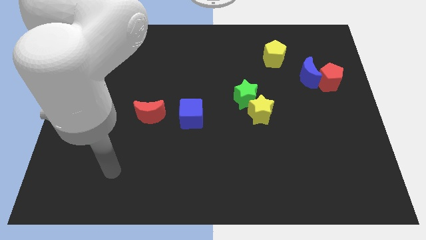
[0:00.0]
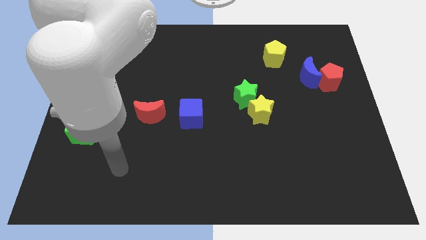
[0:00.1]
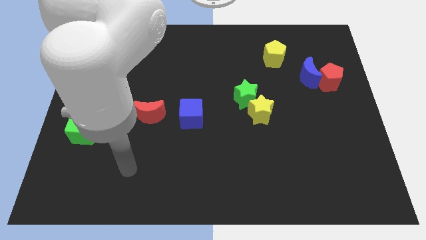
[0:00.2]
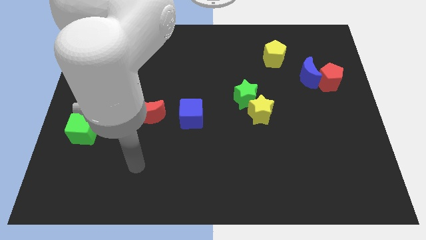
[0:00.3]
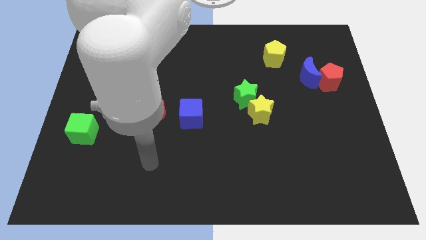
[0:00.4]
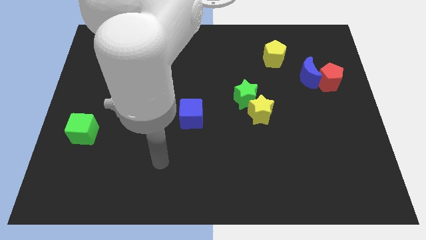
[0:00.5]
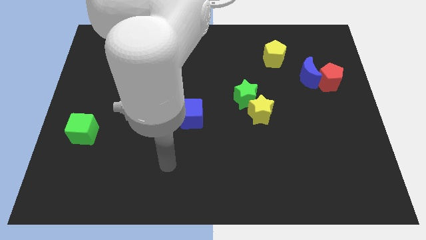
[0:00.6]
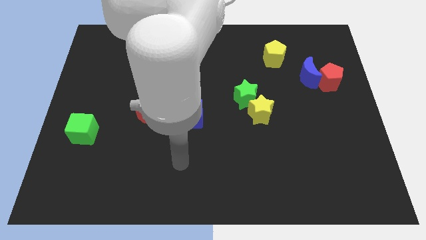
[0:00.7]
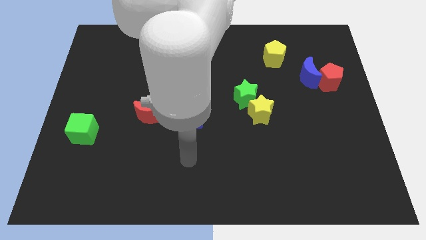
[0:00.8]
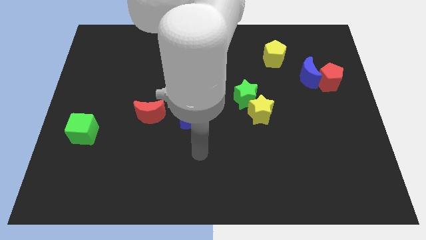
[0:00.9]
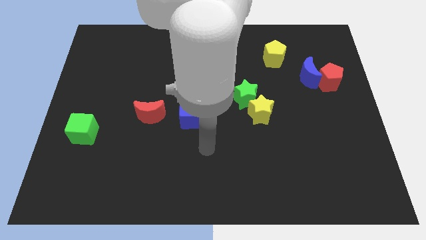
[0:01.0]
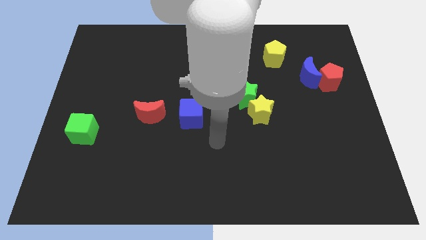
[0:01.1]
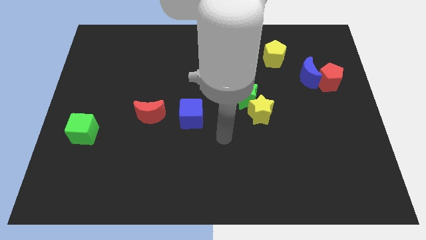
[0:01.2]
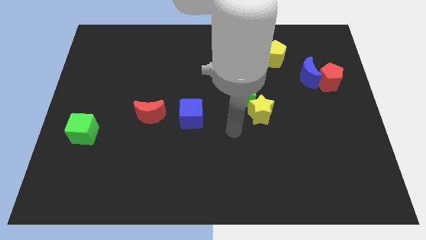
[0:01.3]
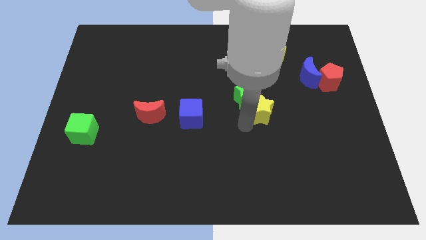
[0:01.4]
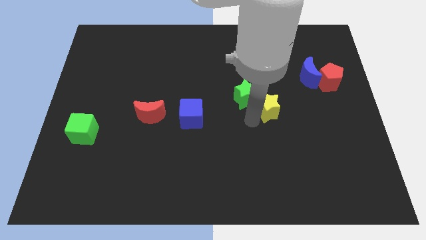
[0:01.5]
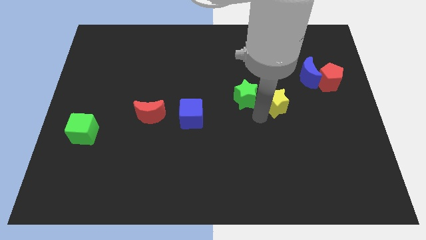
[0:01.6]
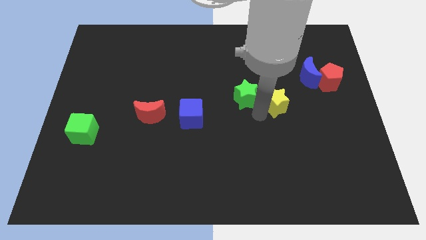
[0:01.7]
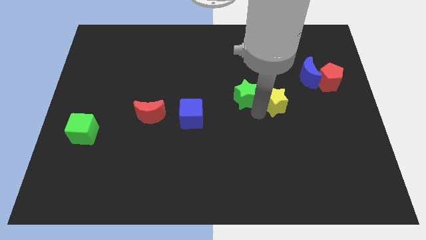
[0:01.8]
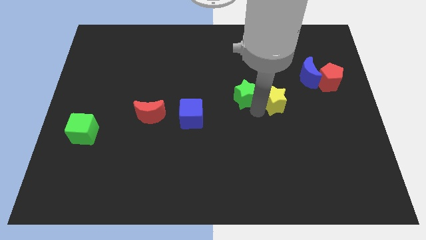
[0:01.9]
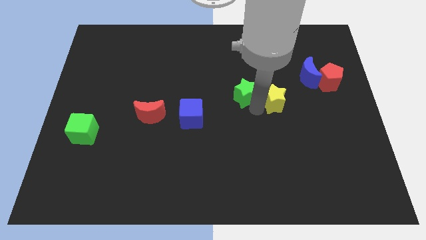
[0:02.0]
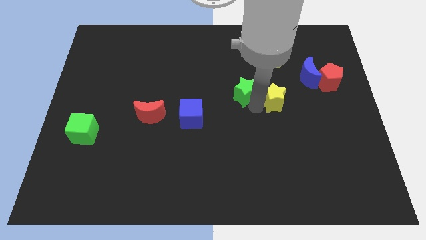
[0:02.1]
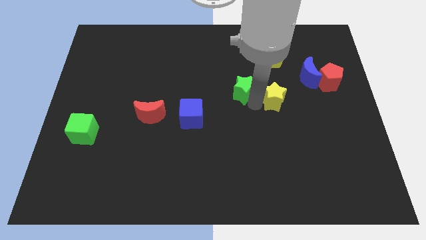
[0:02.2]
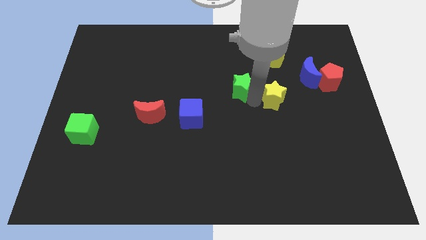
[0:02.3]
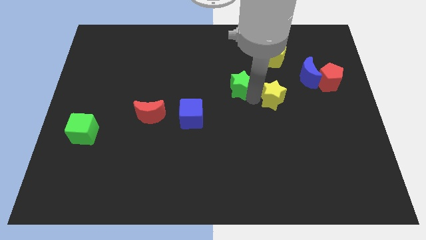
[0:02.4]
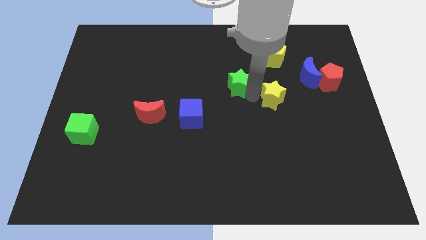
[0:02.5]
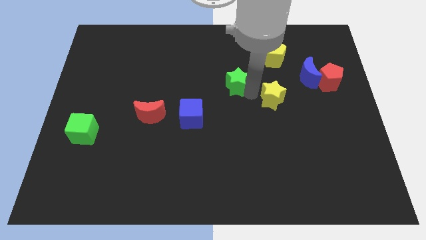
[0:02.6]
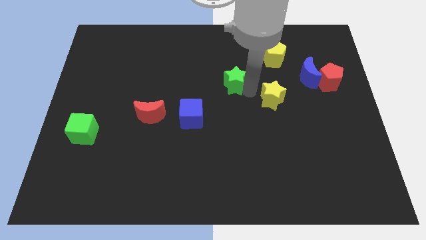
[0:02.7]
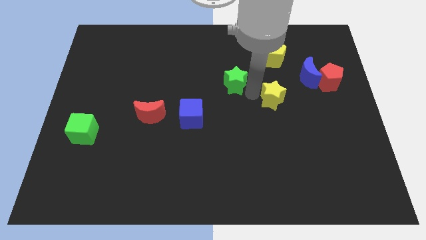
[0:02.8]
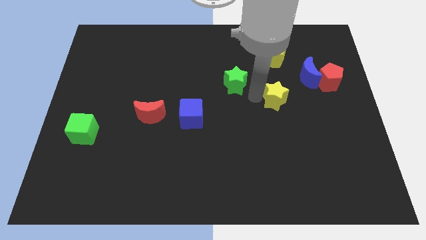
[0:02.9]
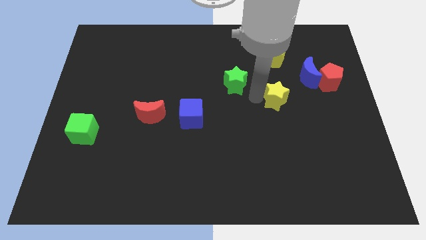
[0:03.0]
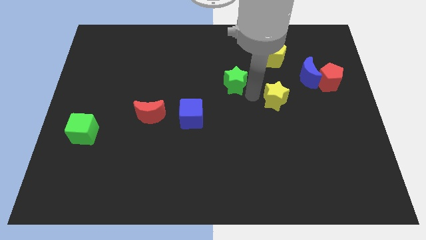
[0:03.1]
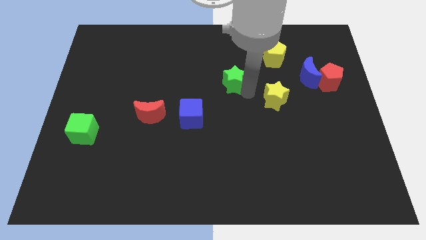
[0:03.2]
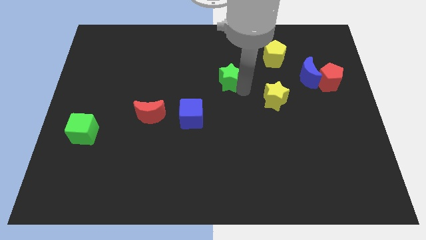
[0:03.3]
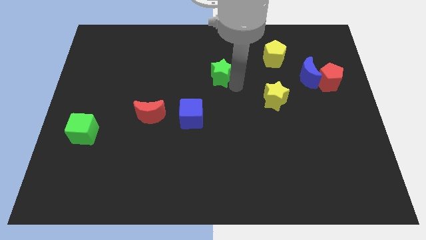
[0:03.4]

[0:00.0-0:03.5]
slightly move the green star upwards and then to the left

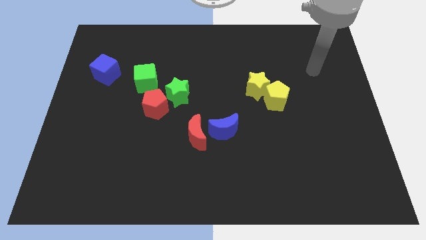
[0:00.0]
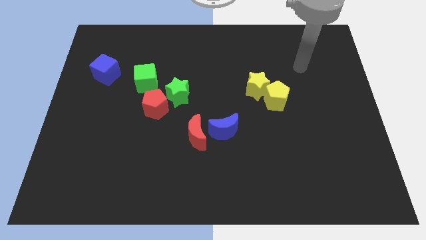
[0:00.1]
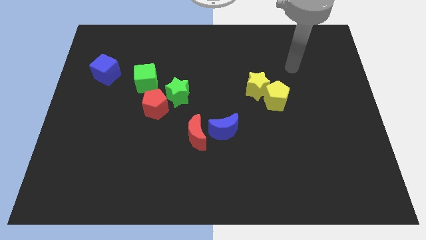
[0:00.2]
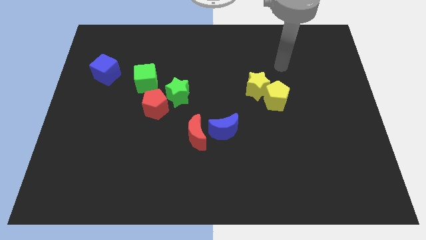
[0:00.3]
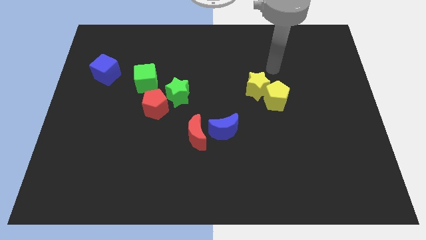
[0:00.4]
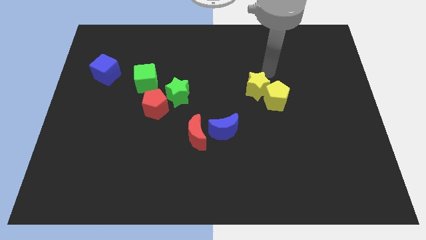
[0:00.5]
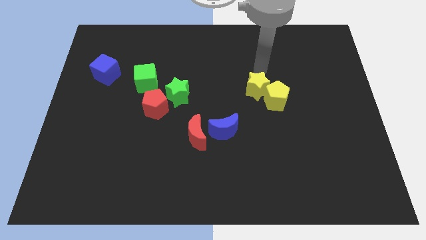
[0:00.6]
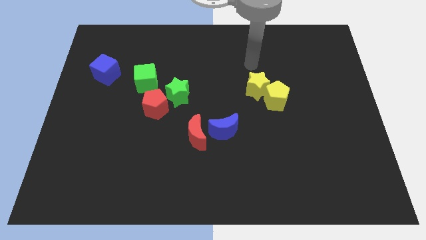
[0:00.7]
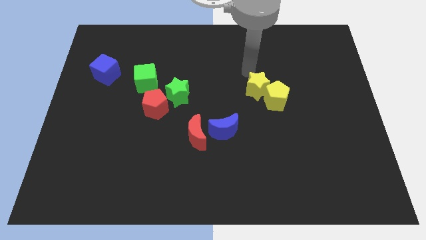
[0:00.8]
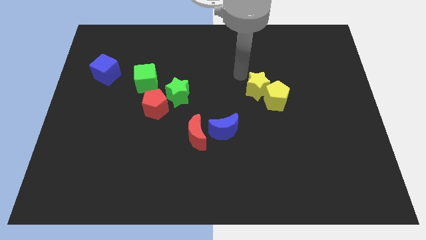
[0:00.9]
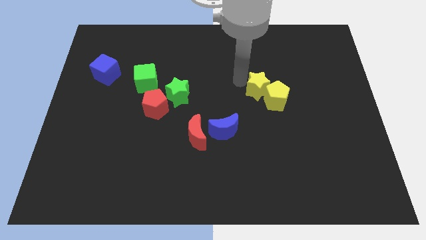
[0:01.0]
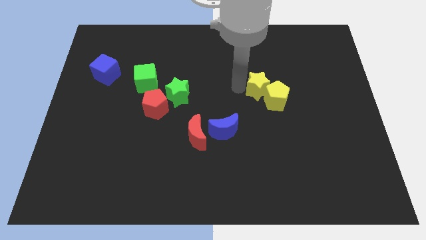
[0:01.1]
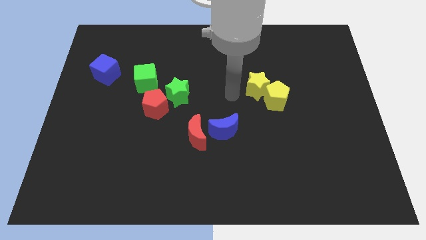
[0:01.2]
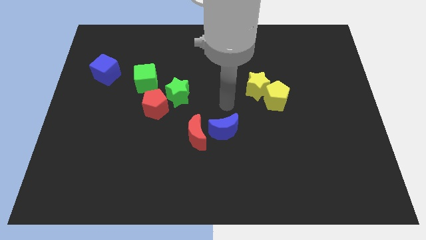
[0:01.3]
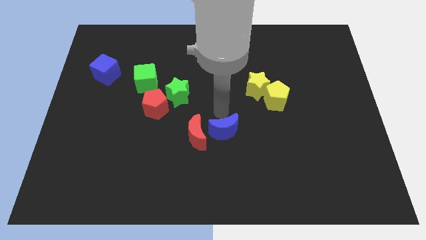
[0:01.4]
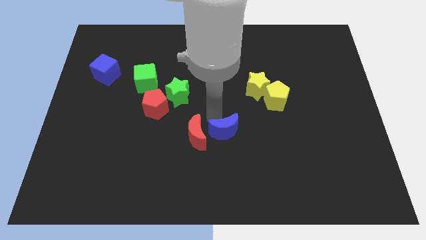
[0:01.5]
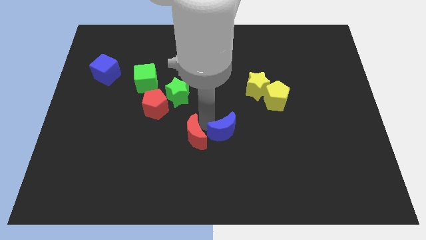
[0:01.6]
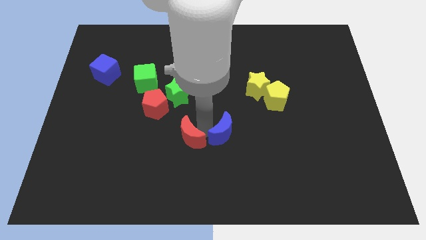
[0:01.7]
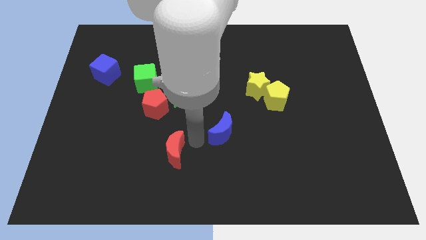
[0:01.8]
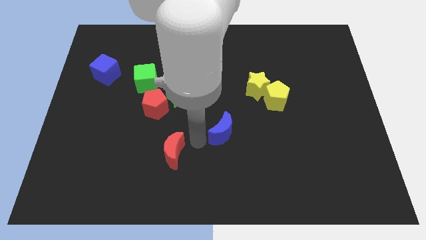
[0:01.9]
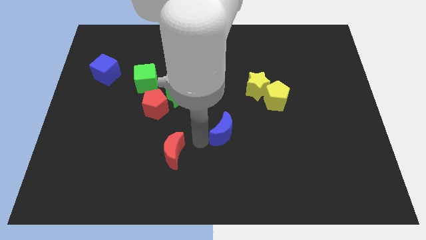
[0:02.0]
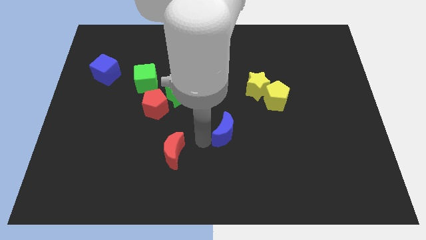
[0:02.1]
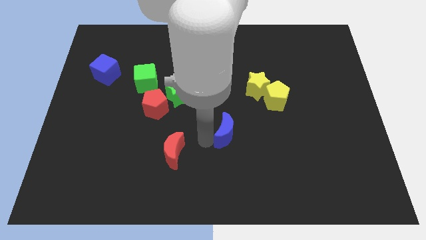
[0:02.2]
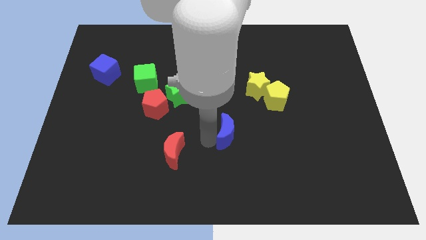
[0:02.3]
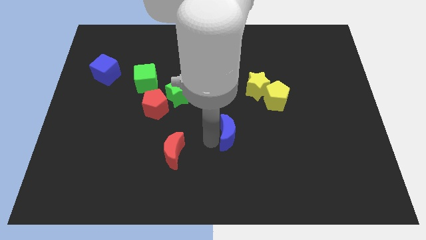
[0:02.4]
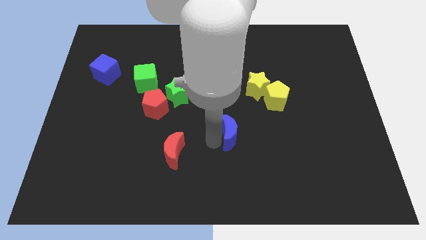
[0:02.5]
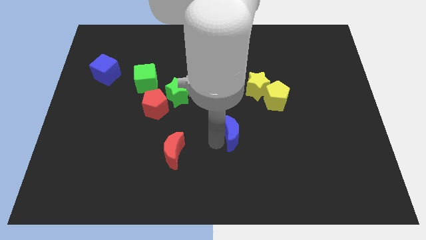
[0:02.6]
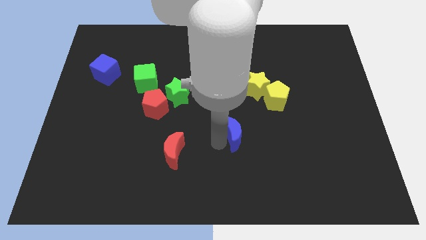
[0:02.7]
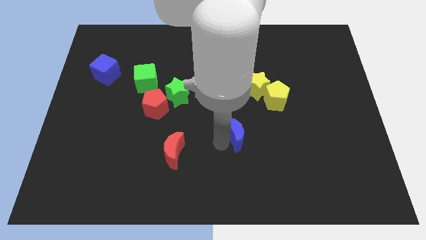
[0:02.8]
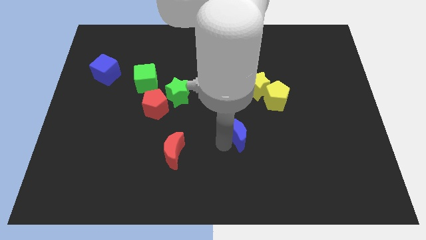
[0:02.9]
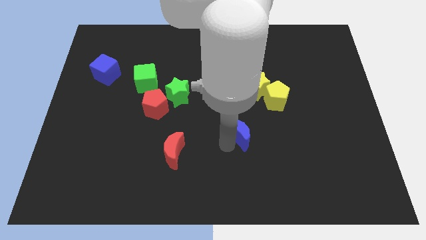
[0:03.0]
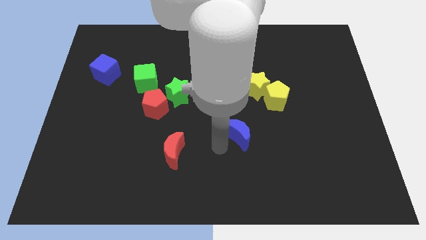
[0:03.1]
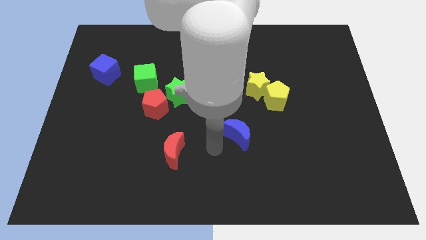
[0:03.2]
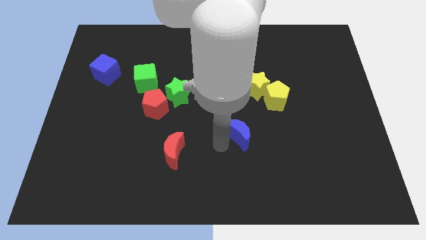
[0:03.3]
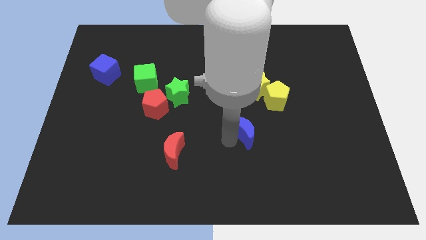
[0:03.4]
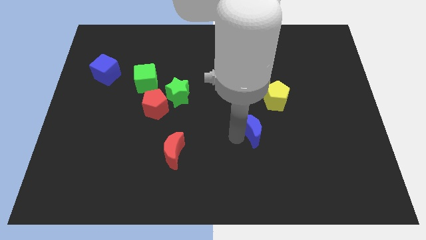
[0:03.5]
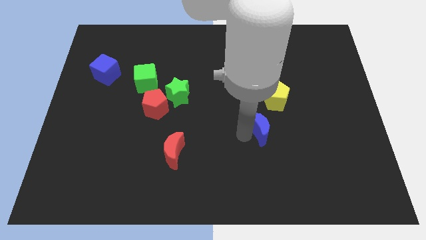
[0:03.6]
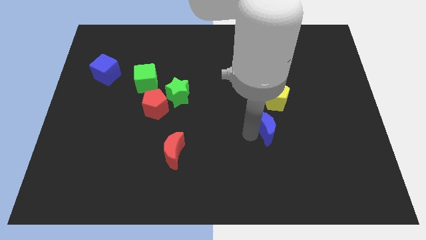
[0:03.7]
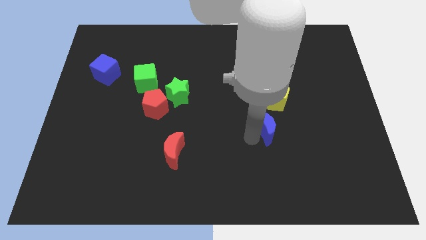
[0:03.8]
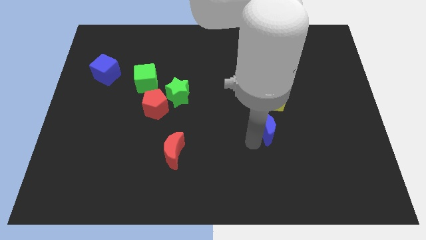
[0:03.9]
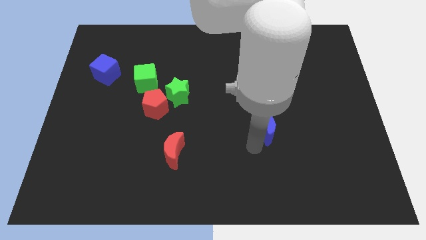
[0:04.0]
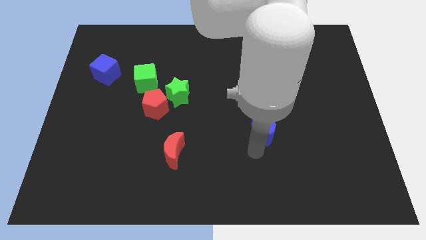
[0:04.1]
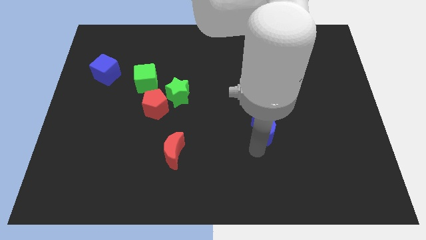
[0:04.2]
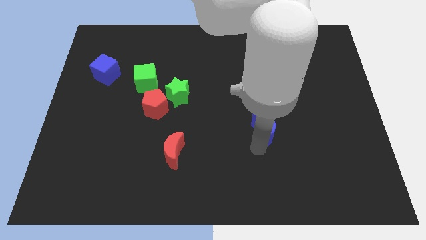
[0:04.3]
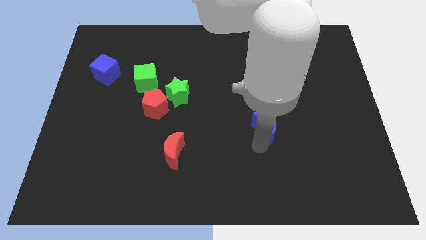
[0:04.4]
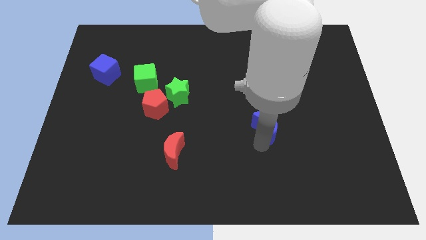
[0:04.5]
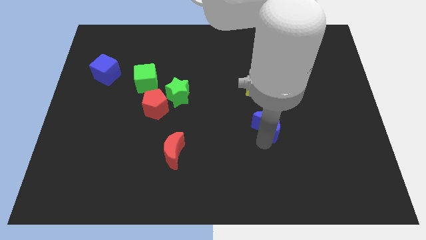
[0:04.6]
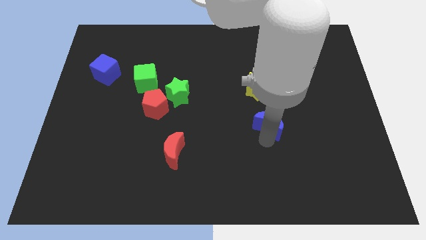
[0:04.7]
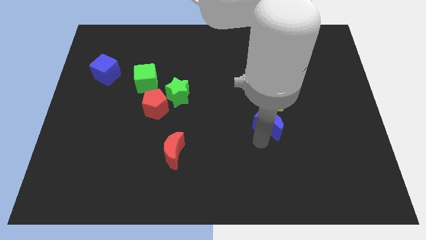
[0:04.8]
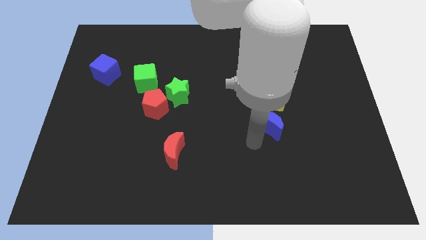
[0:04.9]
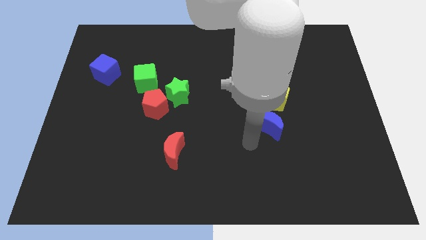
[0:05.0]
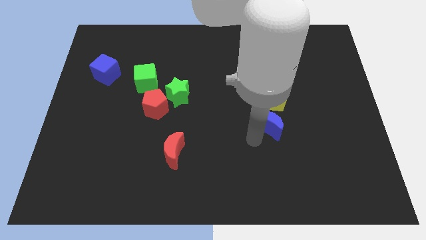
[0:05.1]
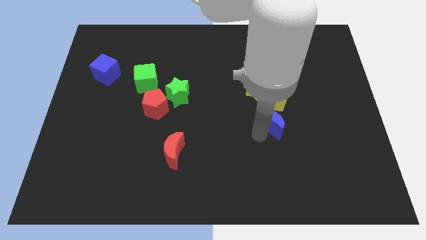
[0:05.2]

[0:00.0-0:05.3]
slightly push the blue moon upwards and to the right
